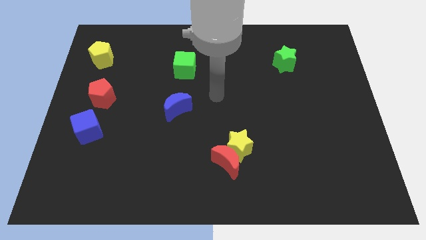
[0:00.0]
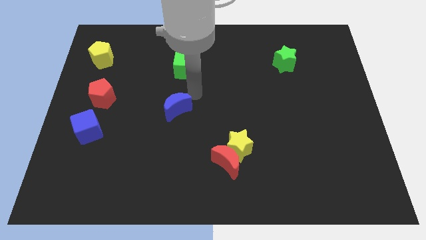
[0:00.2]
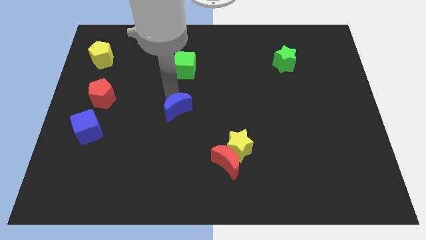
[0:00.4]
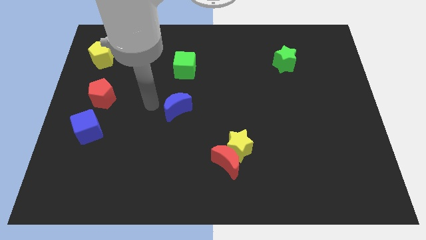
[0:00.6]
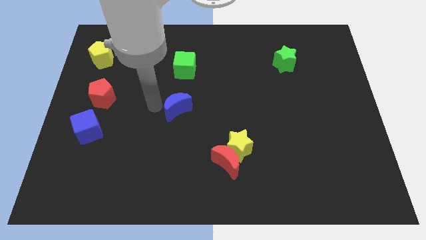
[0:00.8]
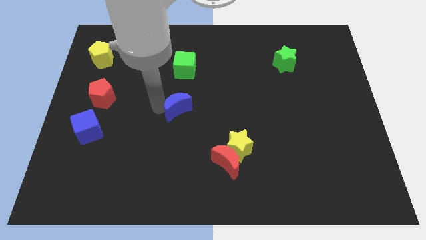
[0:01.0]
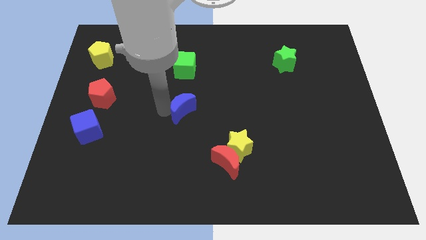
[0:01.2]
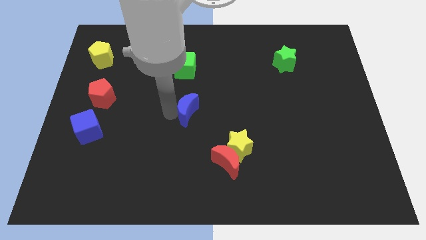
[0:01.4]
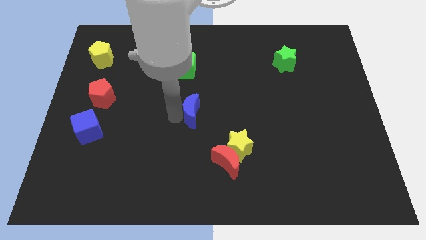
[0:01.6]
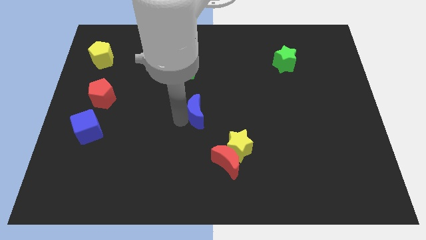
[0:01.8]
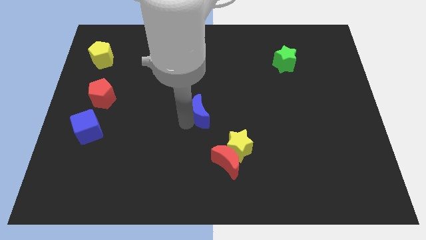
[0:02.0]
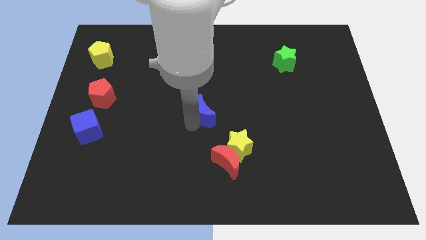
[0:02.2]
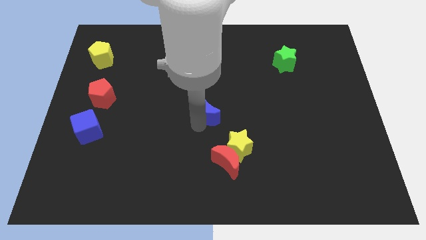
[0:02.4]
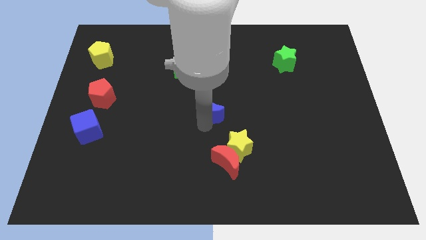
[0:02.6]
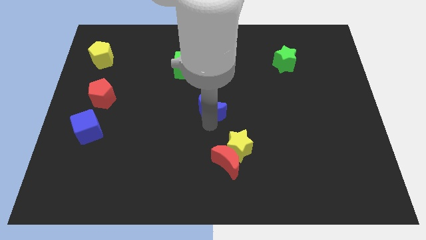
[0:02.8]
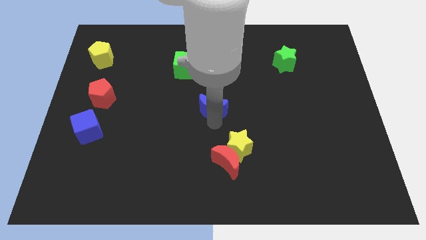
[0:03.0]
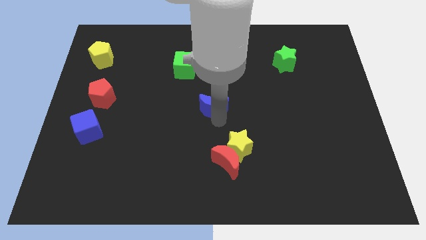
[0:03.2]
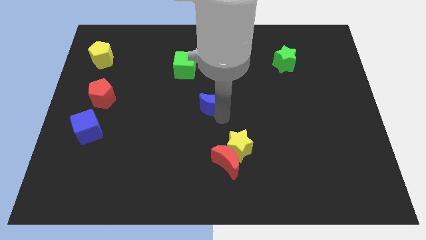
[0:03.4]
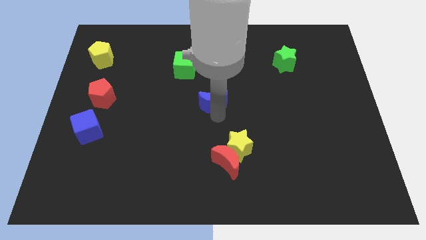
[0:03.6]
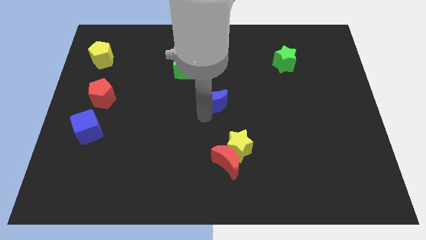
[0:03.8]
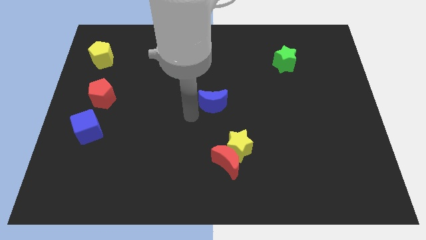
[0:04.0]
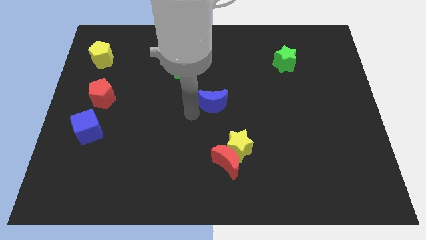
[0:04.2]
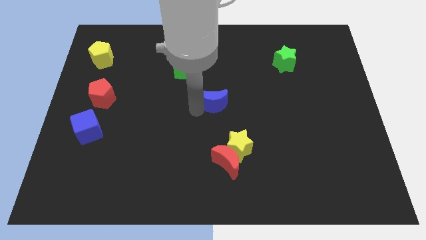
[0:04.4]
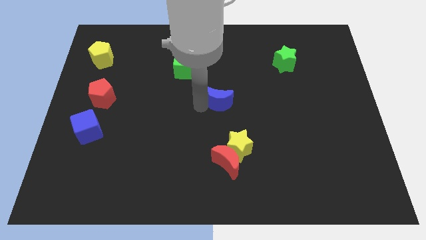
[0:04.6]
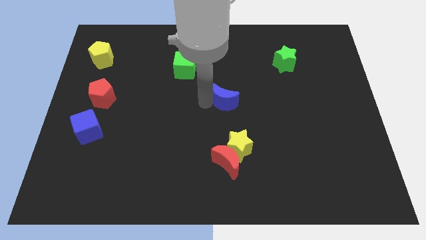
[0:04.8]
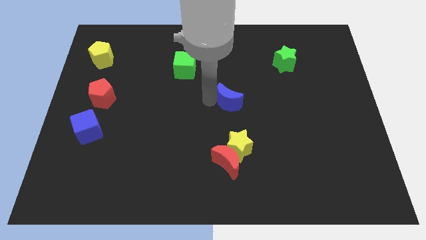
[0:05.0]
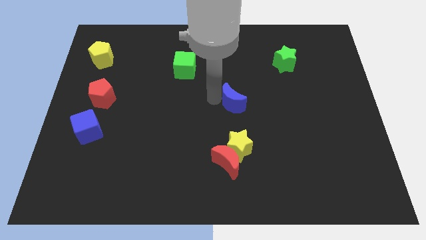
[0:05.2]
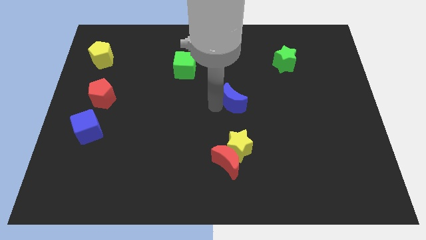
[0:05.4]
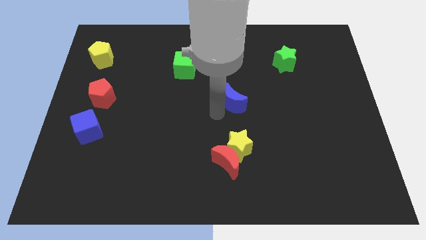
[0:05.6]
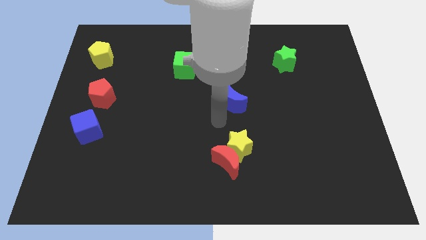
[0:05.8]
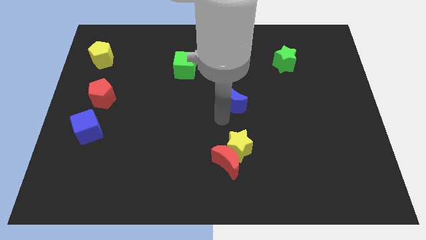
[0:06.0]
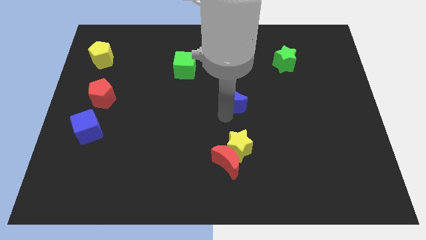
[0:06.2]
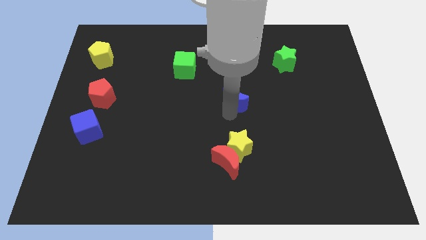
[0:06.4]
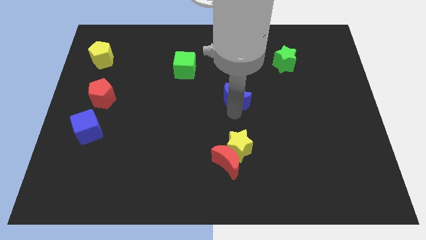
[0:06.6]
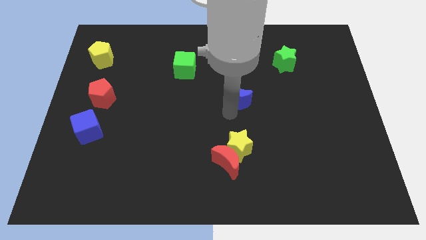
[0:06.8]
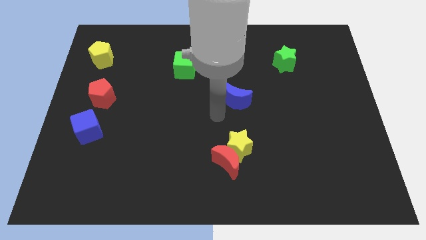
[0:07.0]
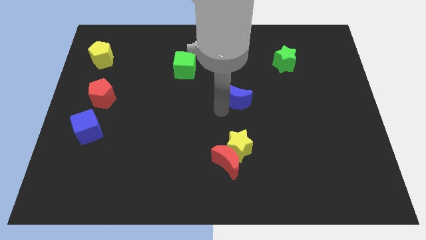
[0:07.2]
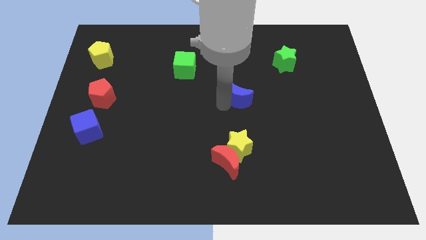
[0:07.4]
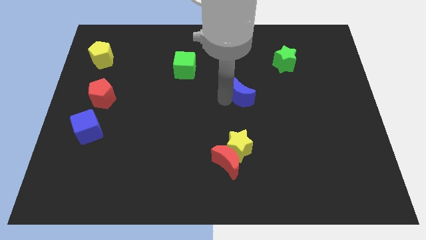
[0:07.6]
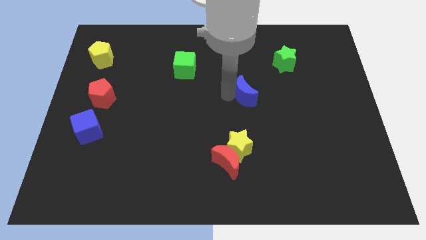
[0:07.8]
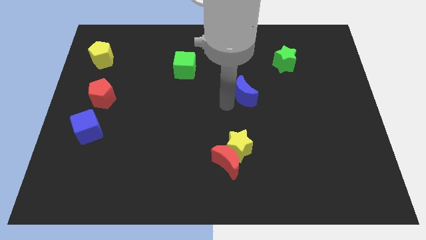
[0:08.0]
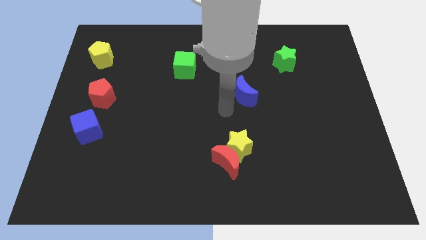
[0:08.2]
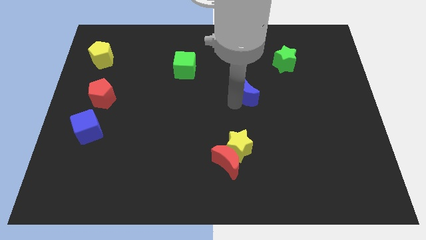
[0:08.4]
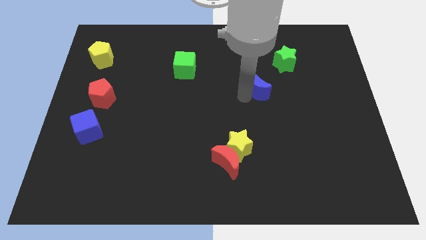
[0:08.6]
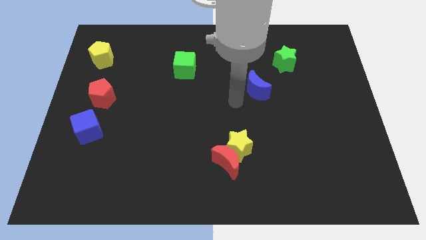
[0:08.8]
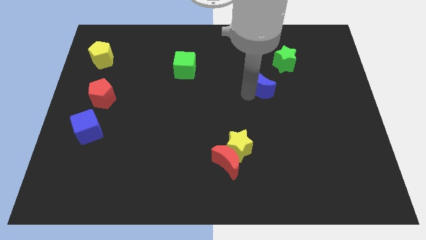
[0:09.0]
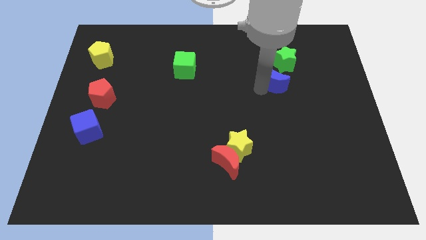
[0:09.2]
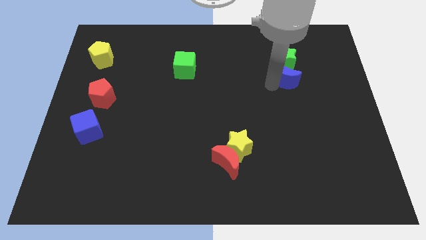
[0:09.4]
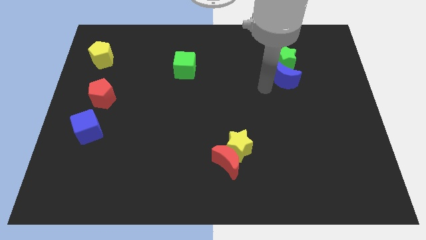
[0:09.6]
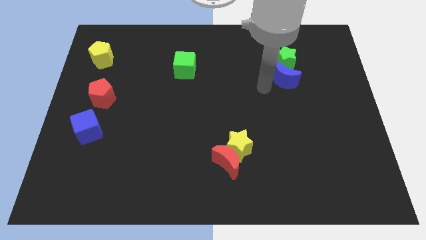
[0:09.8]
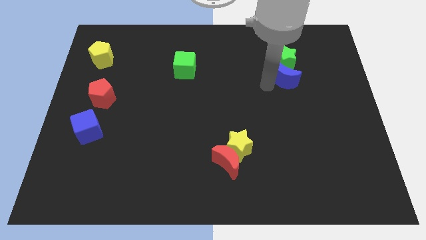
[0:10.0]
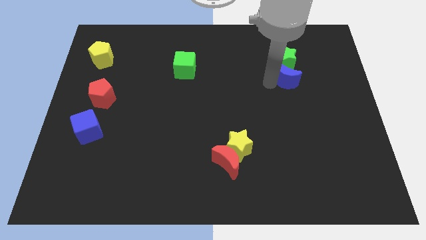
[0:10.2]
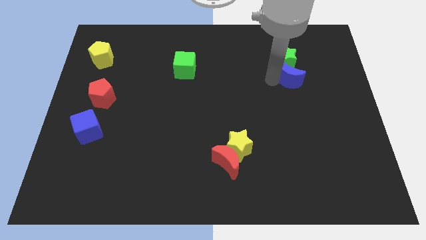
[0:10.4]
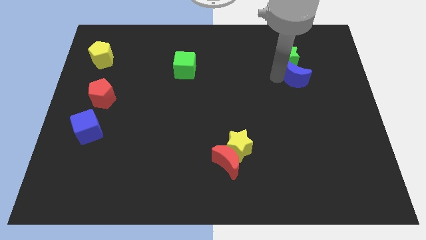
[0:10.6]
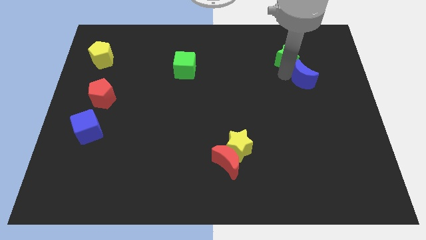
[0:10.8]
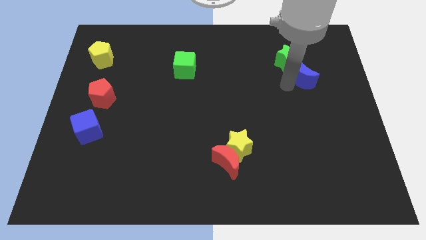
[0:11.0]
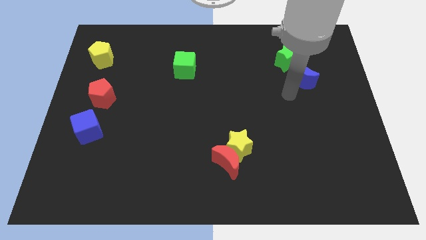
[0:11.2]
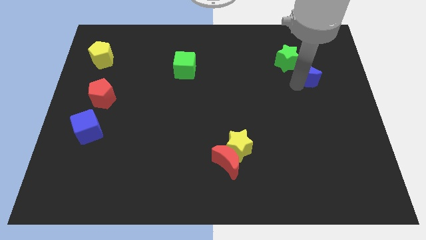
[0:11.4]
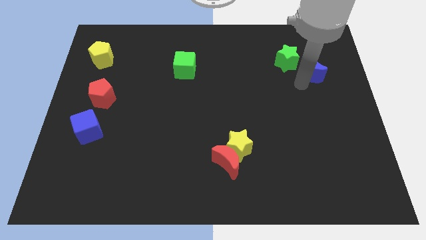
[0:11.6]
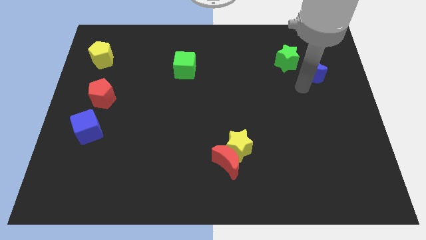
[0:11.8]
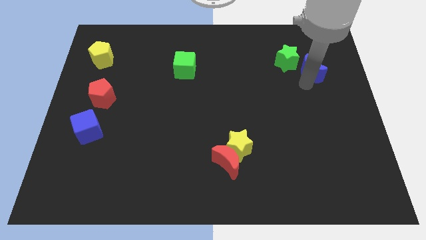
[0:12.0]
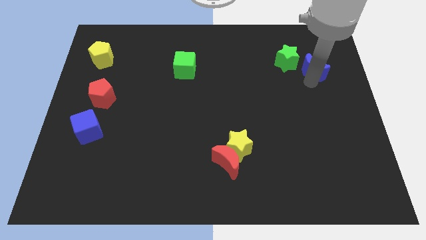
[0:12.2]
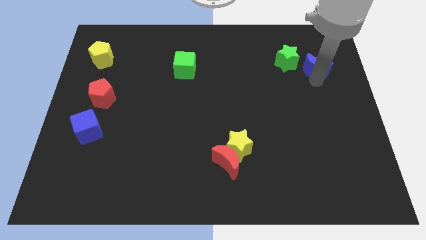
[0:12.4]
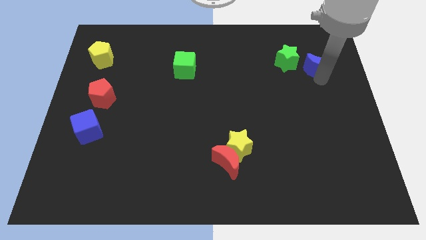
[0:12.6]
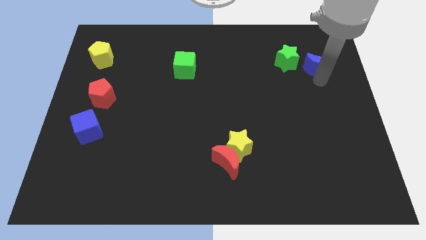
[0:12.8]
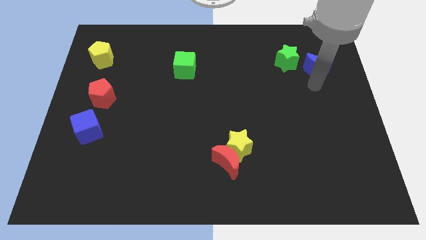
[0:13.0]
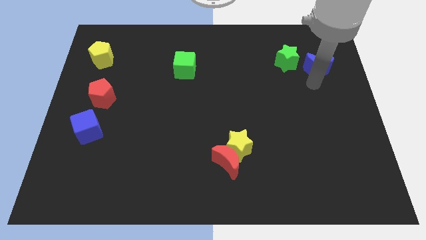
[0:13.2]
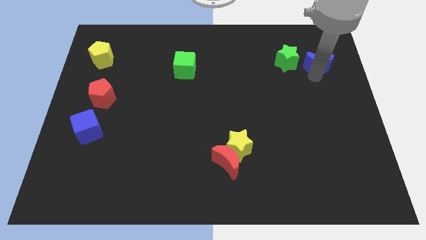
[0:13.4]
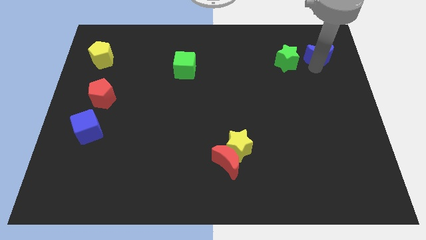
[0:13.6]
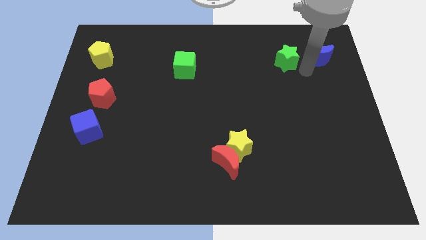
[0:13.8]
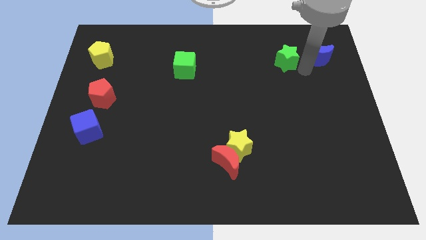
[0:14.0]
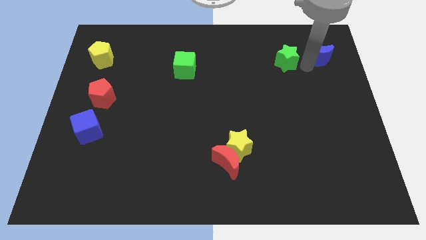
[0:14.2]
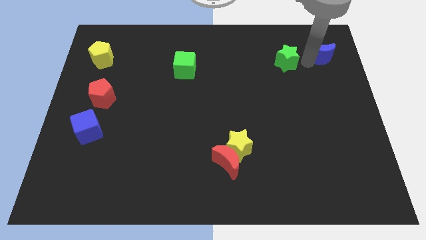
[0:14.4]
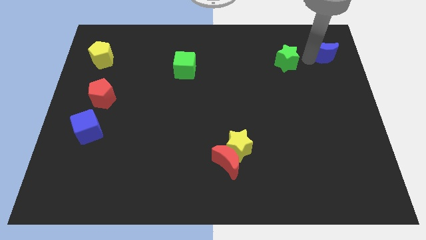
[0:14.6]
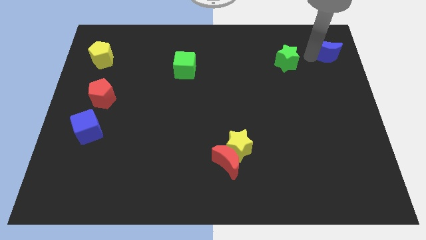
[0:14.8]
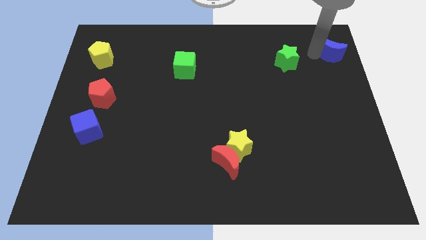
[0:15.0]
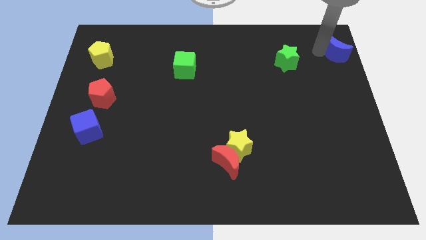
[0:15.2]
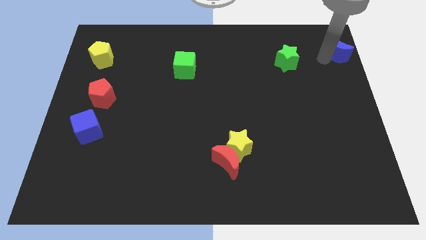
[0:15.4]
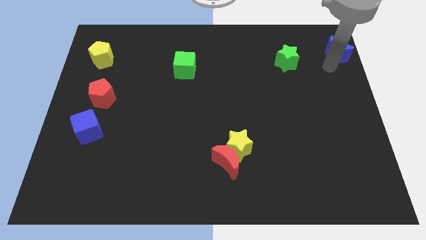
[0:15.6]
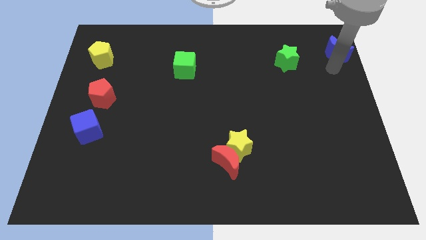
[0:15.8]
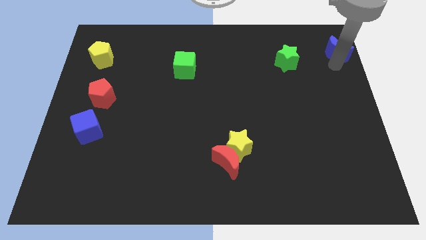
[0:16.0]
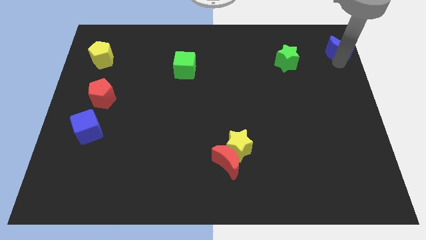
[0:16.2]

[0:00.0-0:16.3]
slide the blue moon to the top right corner
